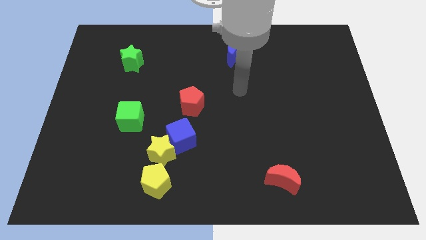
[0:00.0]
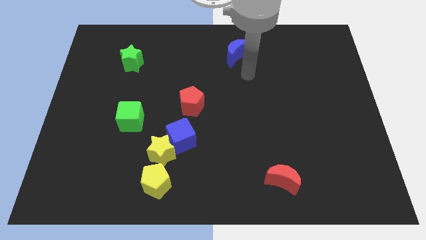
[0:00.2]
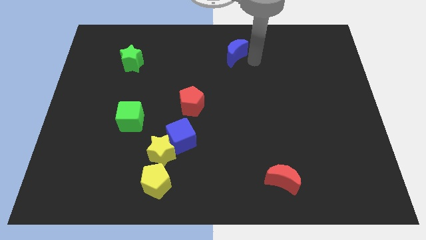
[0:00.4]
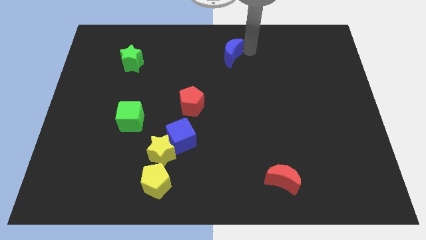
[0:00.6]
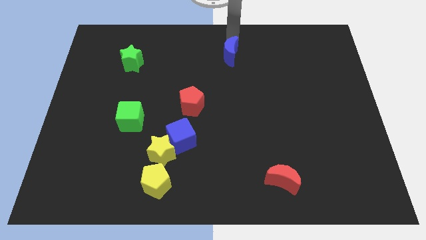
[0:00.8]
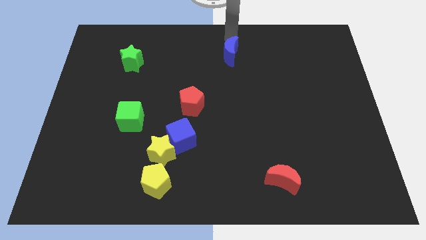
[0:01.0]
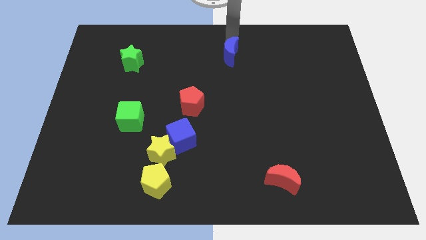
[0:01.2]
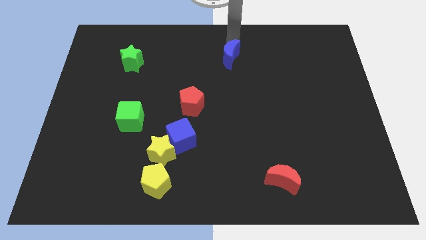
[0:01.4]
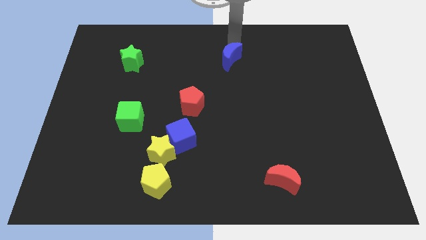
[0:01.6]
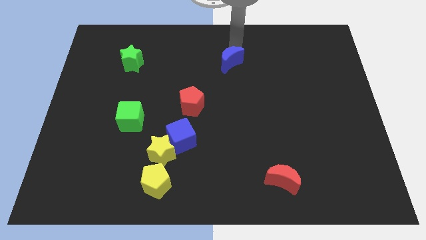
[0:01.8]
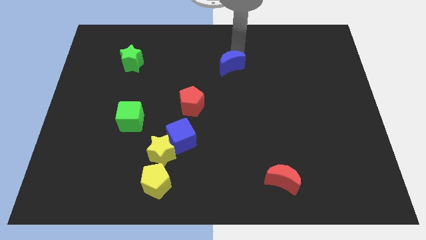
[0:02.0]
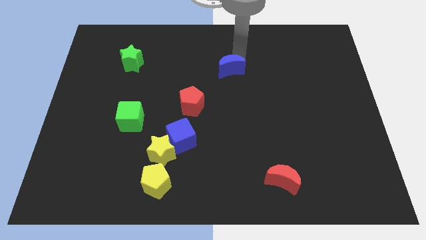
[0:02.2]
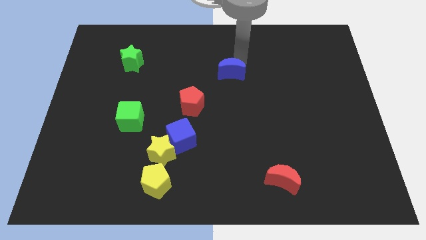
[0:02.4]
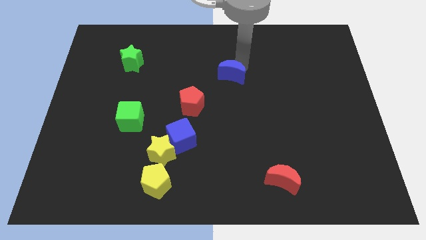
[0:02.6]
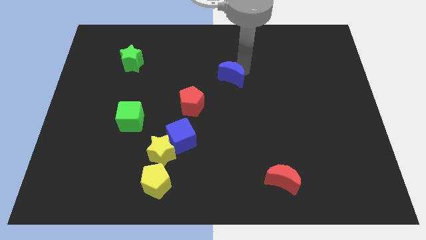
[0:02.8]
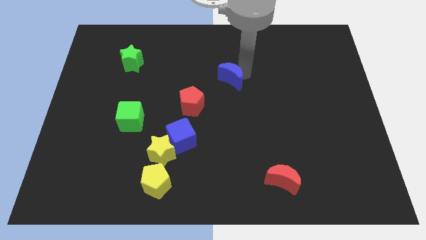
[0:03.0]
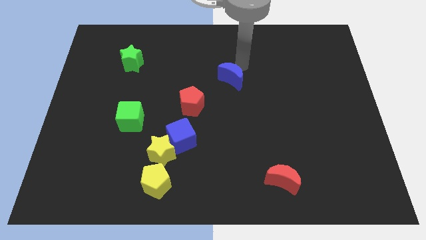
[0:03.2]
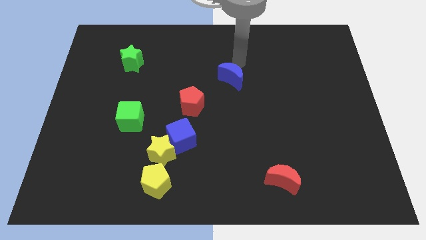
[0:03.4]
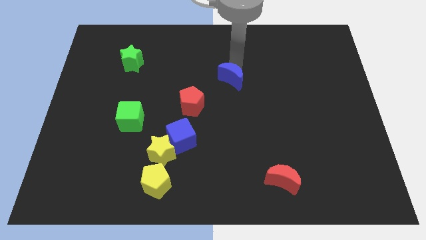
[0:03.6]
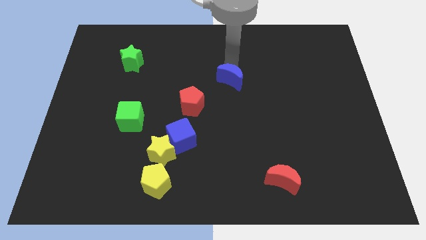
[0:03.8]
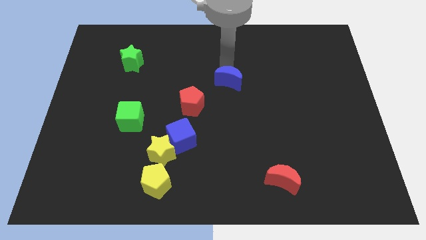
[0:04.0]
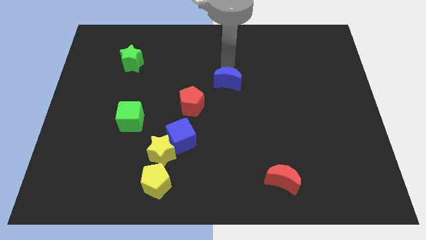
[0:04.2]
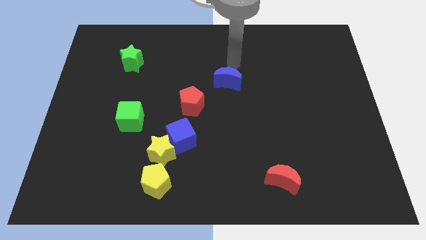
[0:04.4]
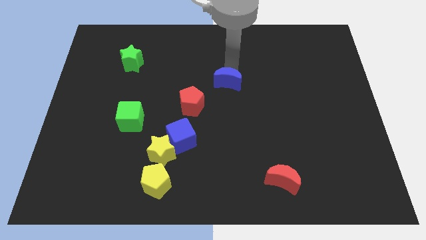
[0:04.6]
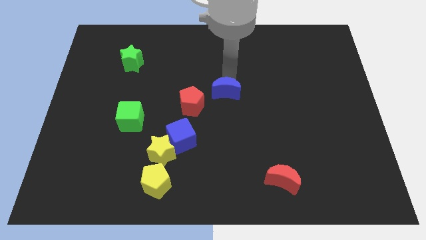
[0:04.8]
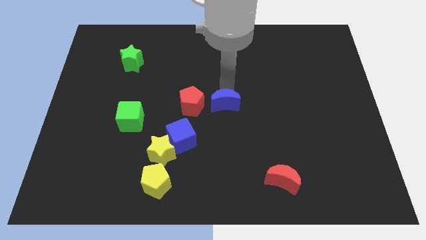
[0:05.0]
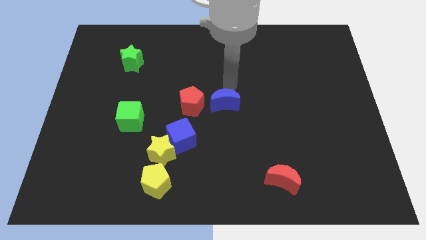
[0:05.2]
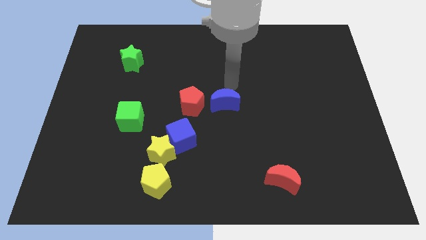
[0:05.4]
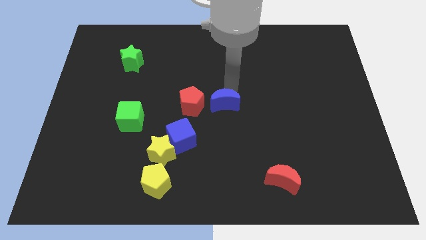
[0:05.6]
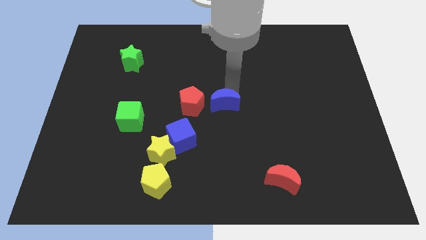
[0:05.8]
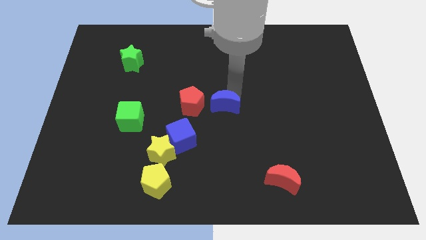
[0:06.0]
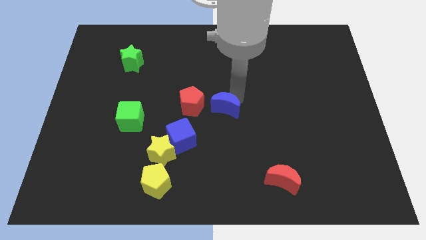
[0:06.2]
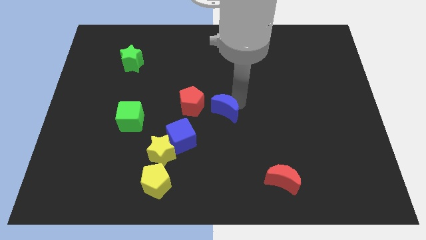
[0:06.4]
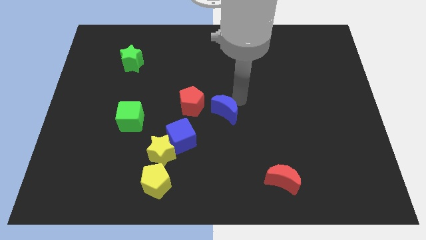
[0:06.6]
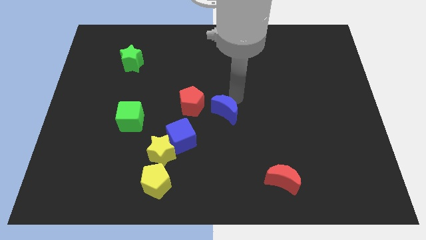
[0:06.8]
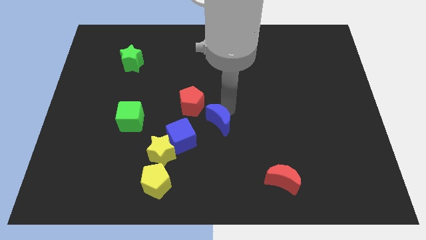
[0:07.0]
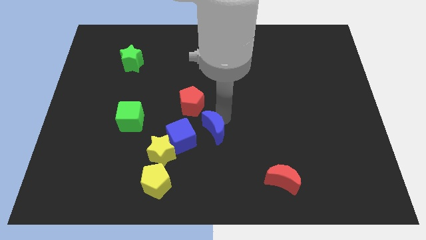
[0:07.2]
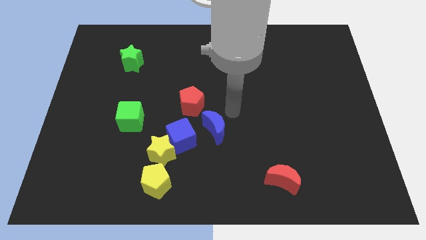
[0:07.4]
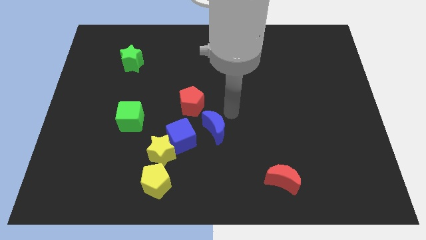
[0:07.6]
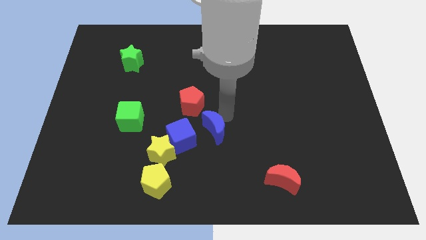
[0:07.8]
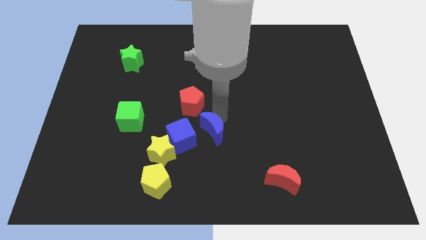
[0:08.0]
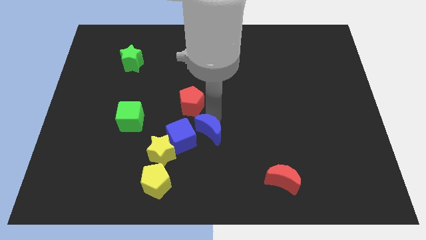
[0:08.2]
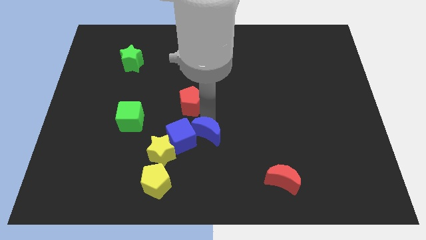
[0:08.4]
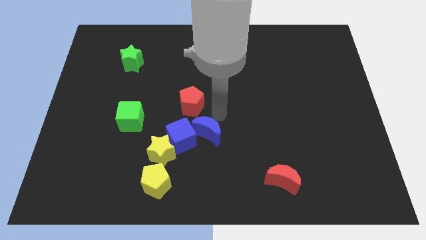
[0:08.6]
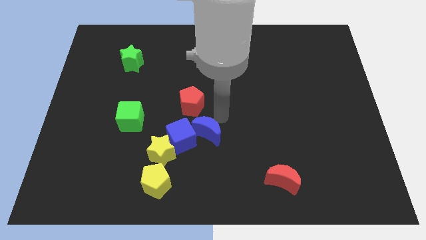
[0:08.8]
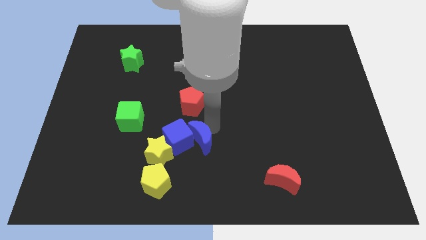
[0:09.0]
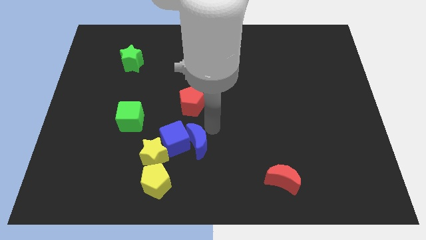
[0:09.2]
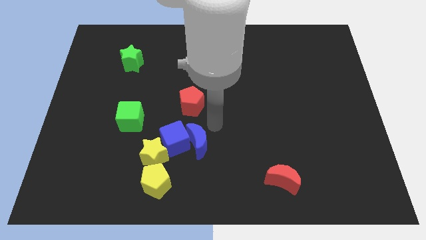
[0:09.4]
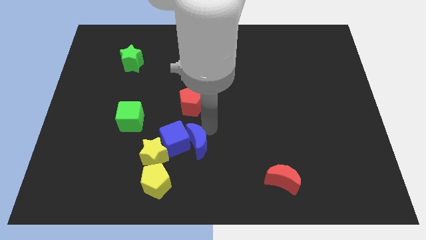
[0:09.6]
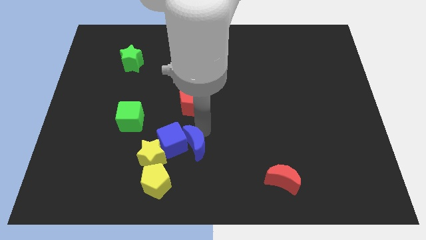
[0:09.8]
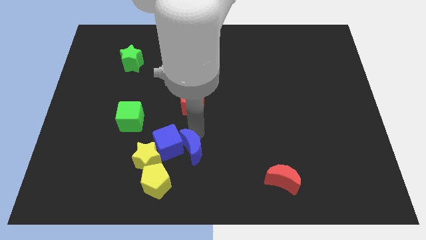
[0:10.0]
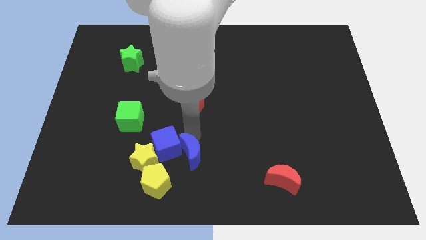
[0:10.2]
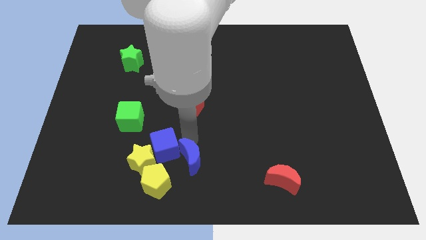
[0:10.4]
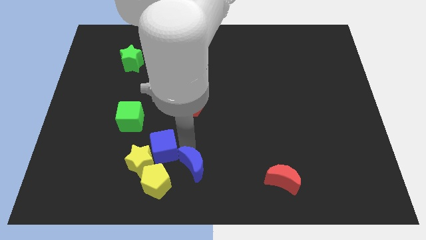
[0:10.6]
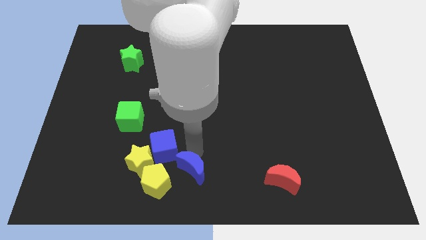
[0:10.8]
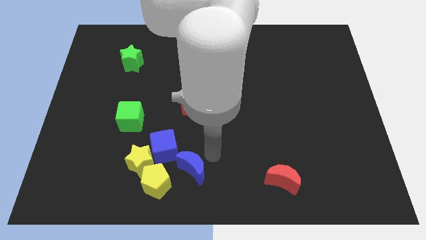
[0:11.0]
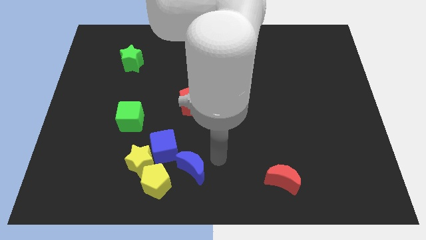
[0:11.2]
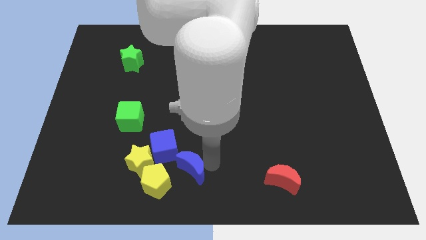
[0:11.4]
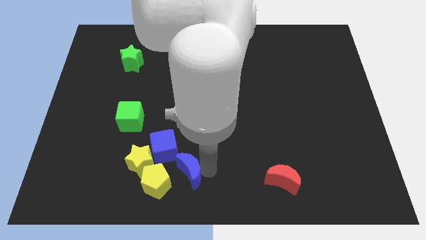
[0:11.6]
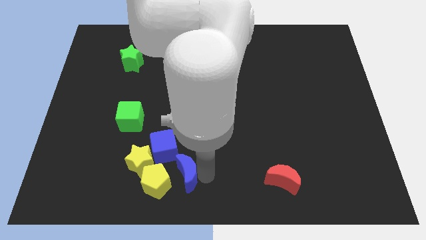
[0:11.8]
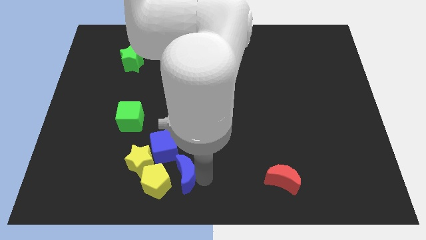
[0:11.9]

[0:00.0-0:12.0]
push the blue moon towards the yellow pentagon

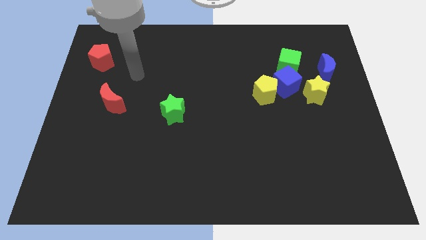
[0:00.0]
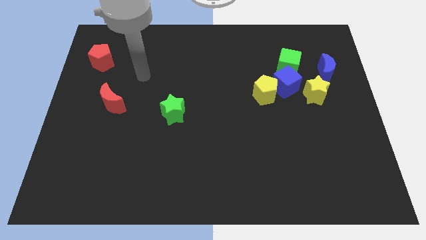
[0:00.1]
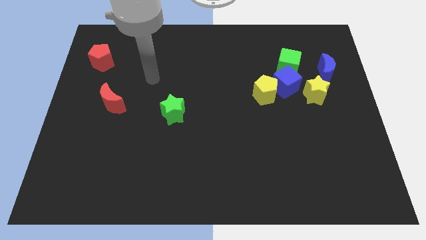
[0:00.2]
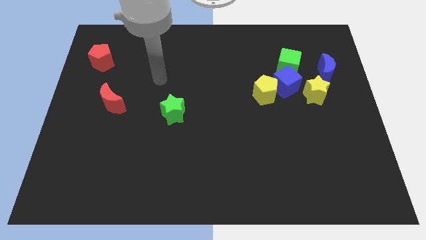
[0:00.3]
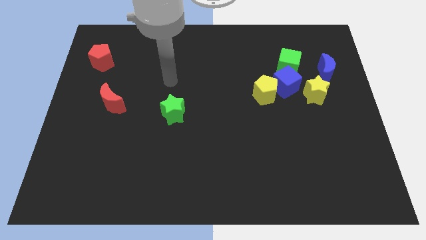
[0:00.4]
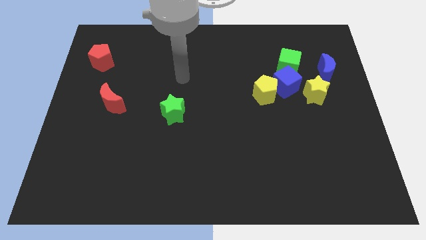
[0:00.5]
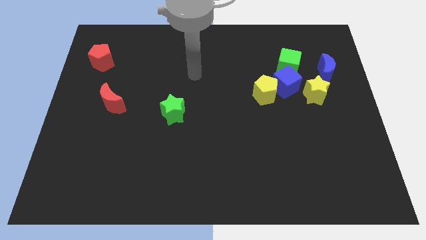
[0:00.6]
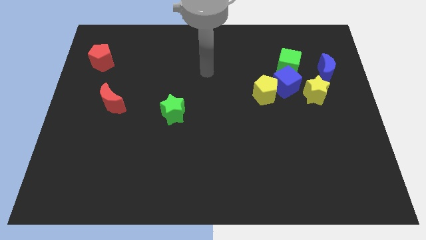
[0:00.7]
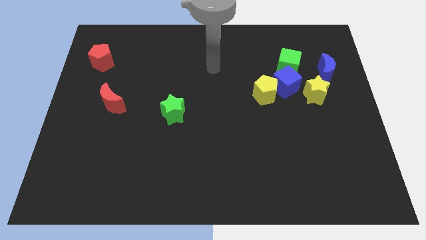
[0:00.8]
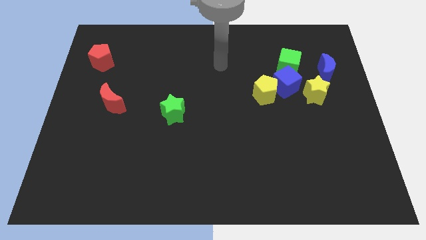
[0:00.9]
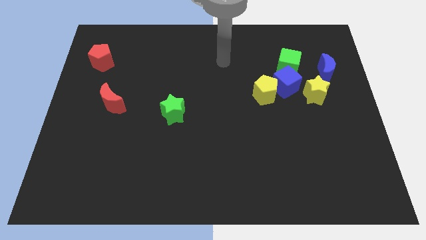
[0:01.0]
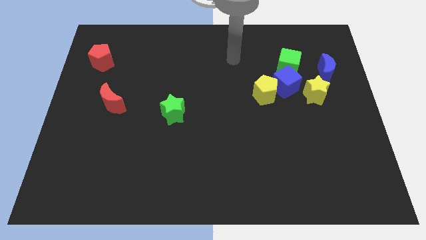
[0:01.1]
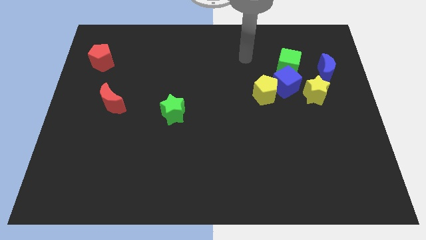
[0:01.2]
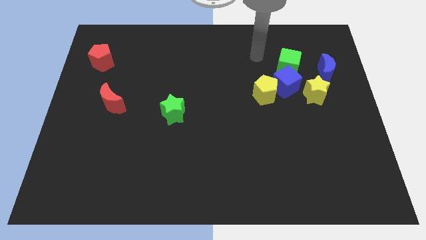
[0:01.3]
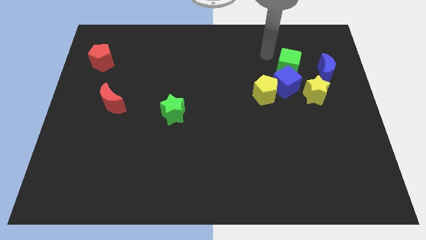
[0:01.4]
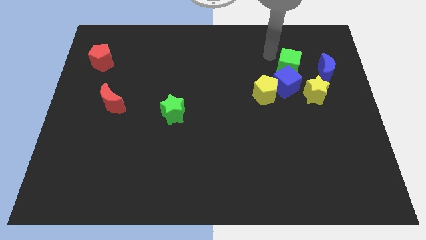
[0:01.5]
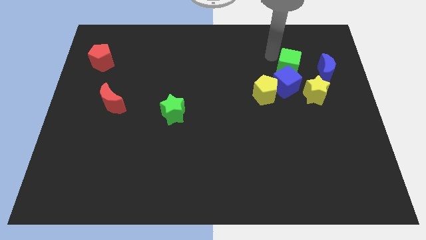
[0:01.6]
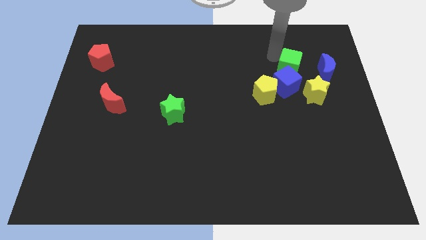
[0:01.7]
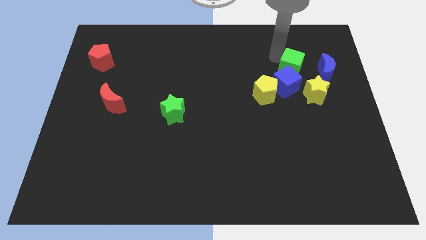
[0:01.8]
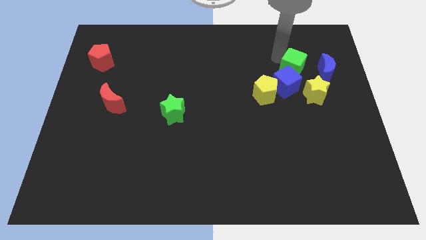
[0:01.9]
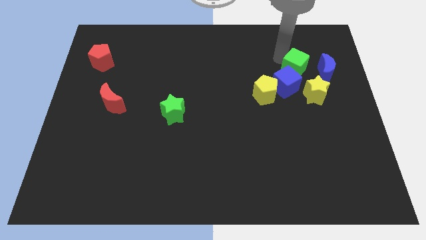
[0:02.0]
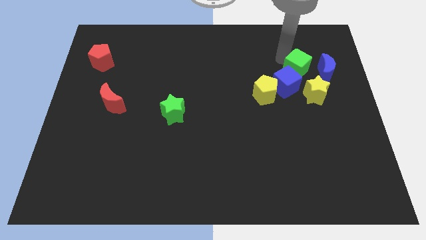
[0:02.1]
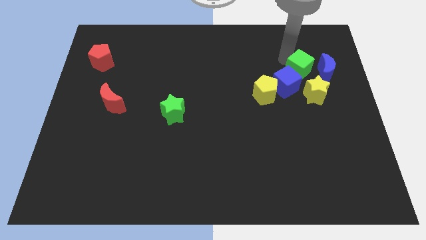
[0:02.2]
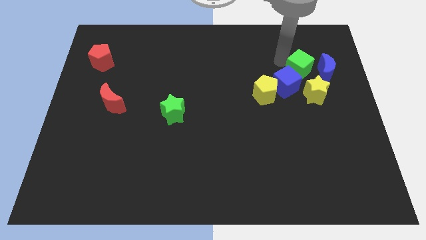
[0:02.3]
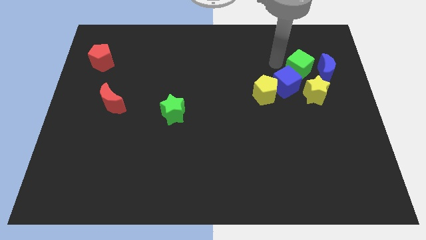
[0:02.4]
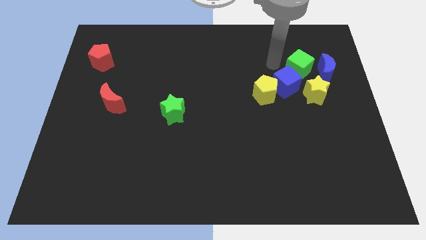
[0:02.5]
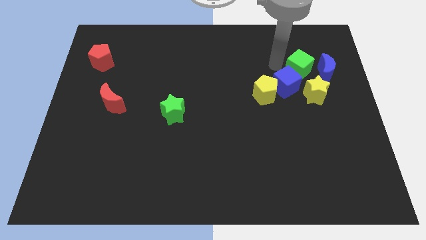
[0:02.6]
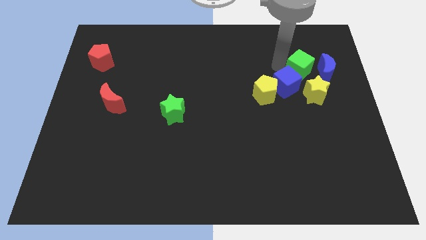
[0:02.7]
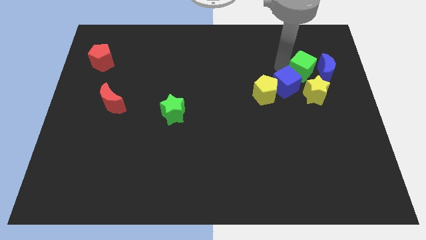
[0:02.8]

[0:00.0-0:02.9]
put the green cube to the blue moon
